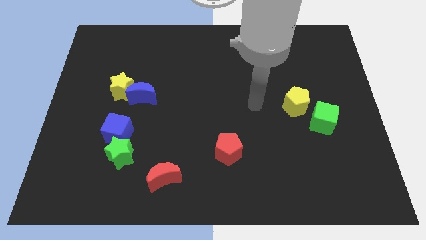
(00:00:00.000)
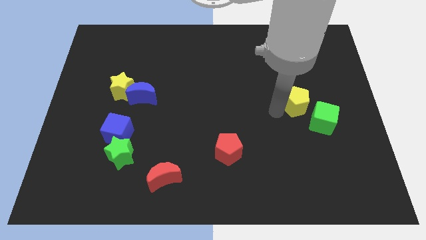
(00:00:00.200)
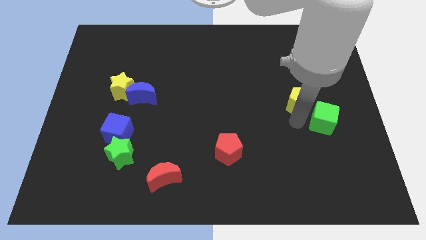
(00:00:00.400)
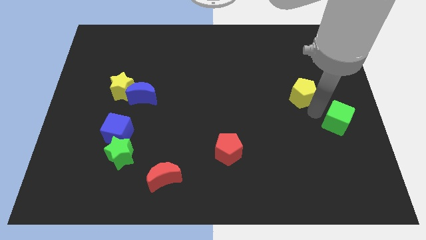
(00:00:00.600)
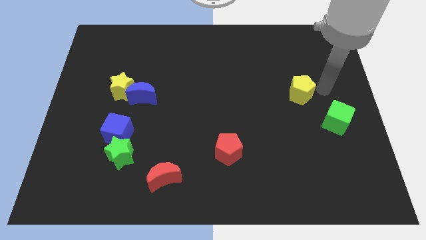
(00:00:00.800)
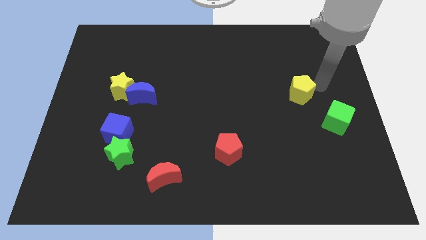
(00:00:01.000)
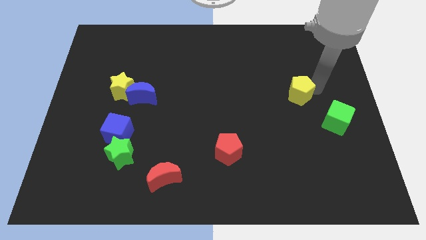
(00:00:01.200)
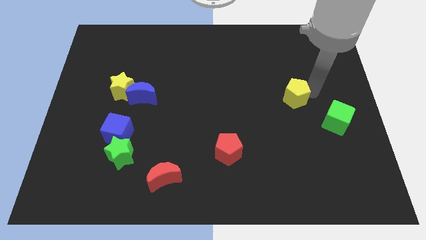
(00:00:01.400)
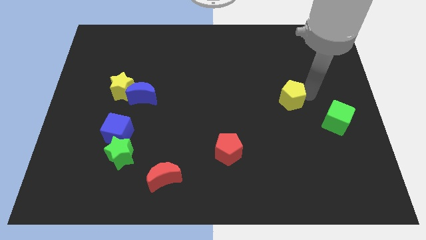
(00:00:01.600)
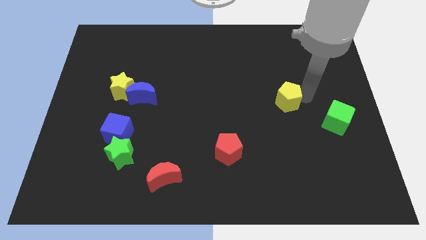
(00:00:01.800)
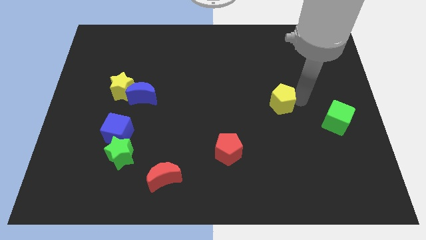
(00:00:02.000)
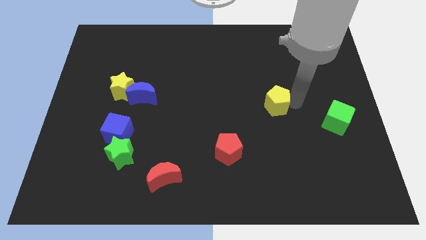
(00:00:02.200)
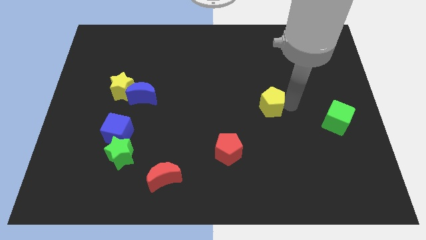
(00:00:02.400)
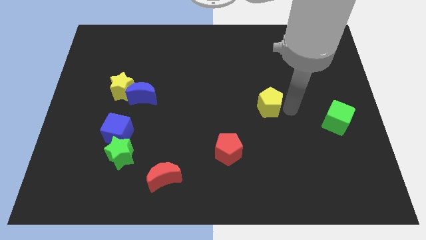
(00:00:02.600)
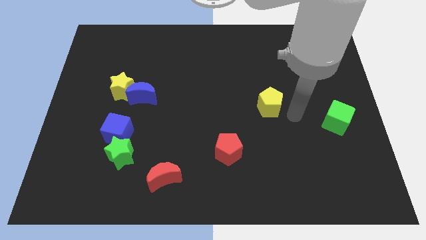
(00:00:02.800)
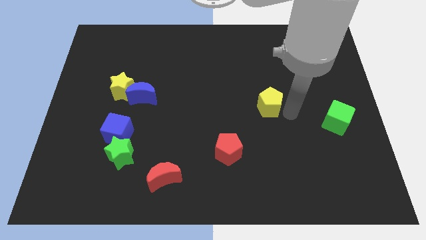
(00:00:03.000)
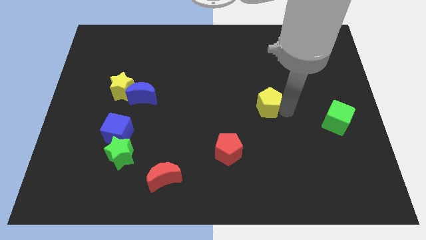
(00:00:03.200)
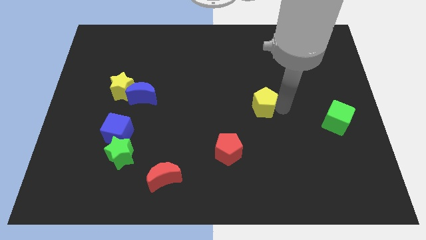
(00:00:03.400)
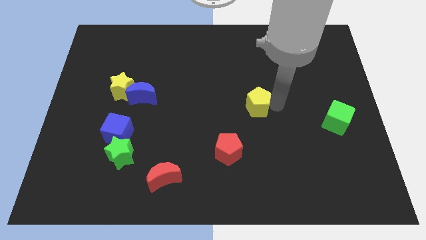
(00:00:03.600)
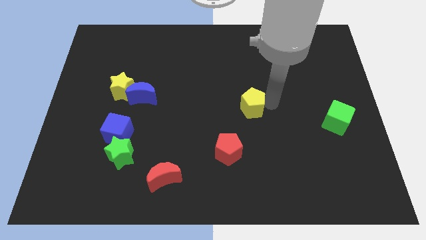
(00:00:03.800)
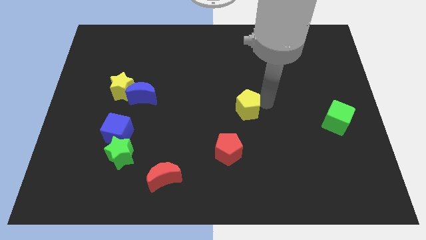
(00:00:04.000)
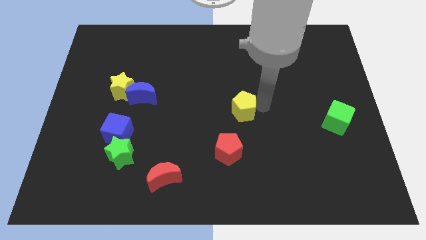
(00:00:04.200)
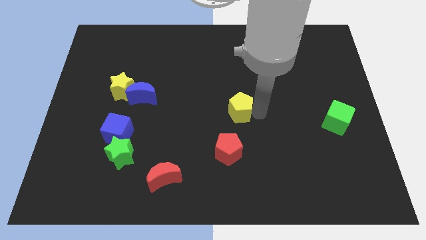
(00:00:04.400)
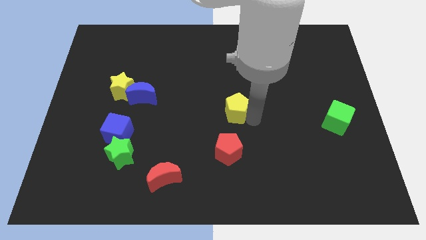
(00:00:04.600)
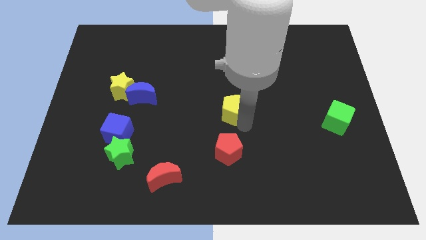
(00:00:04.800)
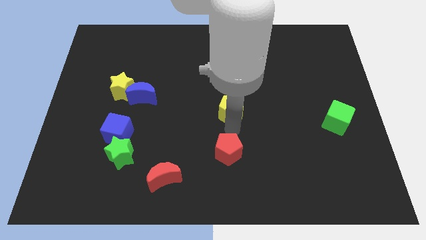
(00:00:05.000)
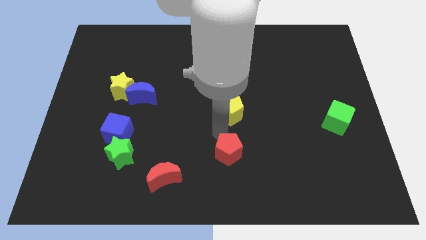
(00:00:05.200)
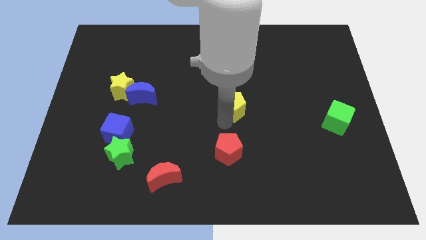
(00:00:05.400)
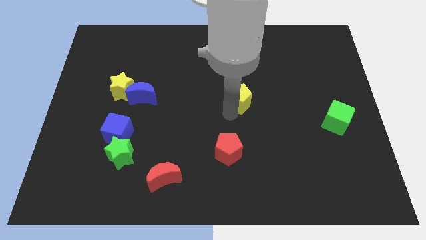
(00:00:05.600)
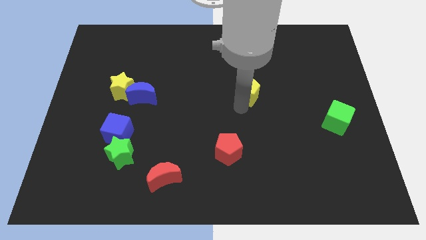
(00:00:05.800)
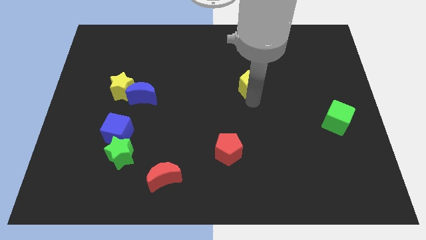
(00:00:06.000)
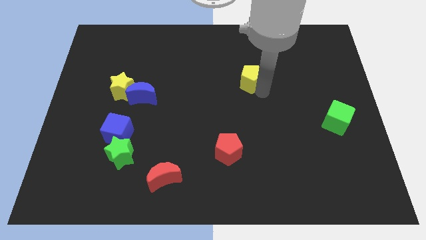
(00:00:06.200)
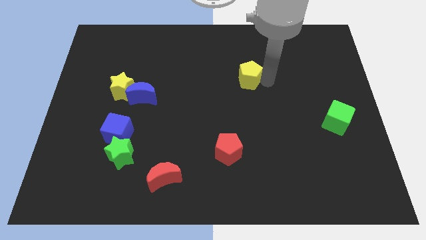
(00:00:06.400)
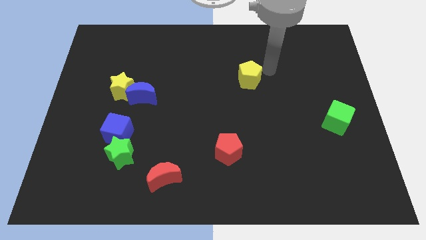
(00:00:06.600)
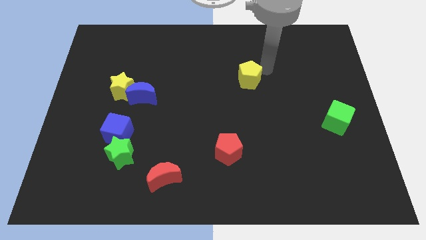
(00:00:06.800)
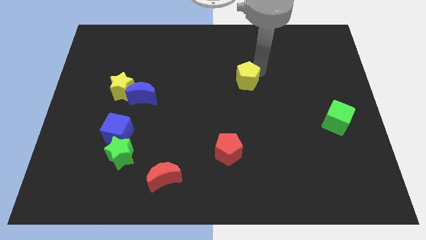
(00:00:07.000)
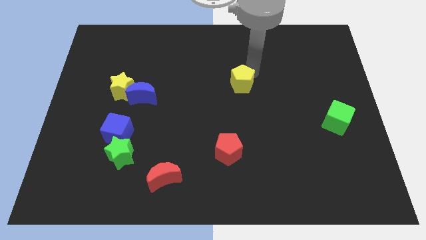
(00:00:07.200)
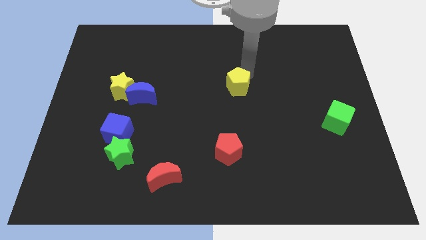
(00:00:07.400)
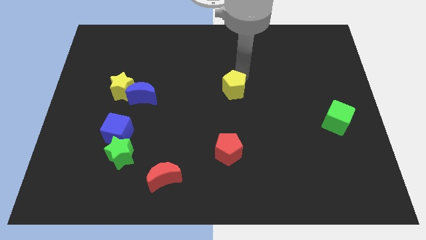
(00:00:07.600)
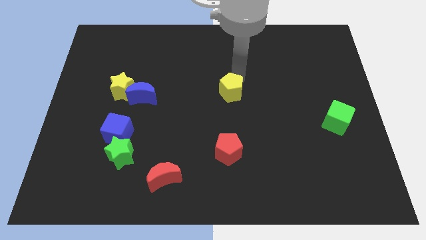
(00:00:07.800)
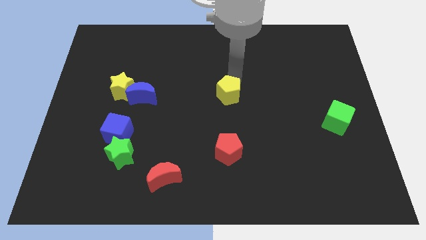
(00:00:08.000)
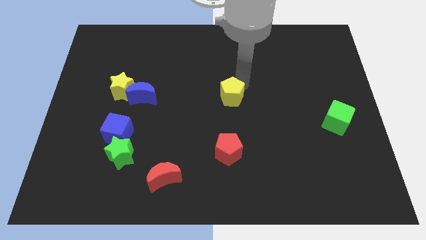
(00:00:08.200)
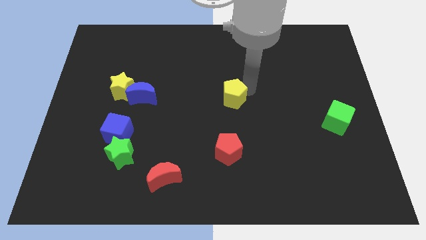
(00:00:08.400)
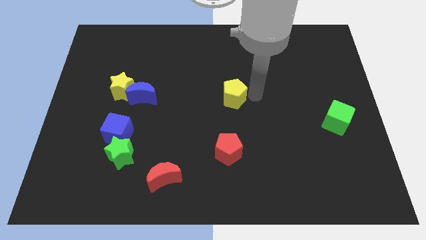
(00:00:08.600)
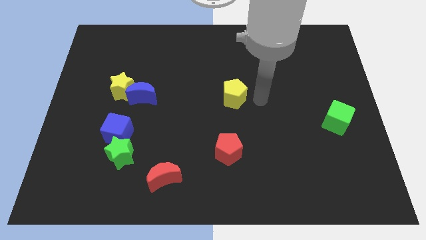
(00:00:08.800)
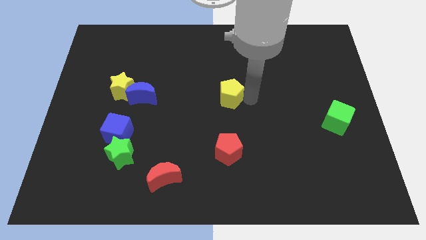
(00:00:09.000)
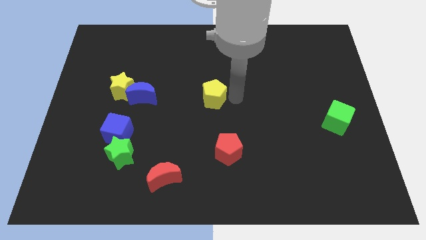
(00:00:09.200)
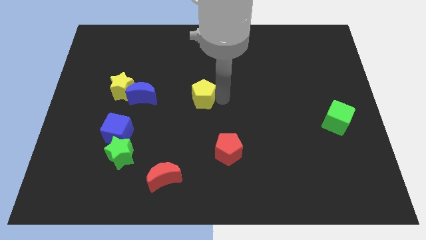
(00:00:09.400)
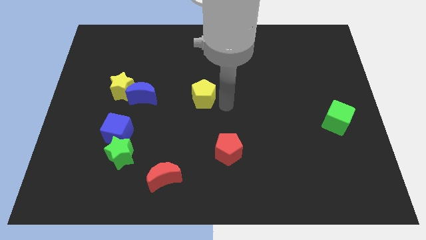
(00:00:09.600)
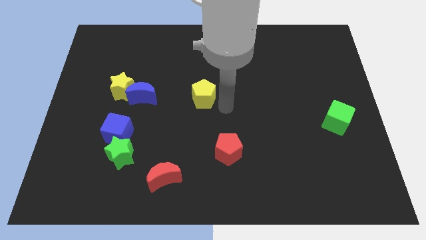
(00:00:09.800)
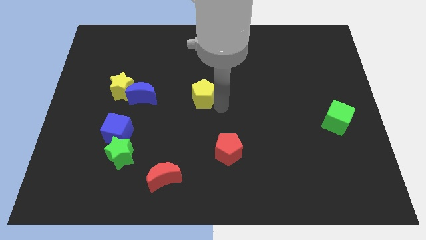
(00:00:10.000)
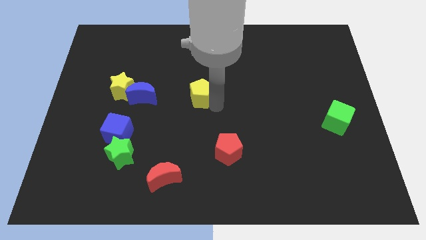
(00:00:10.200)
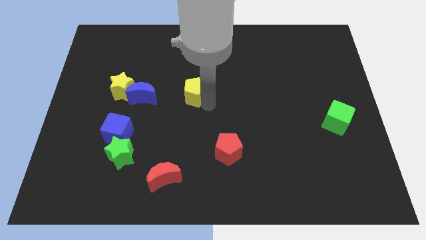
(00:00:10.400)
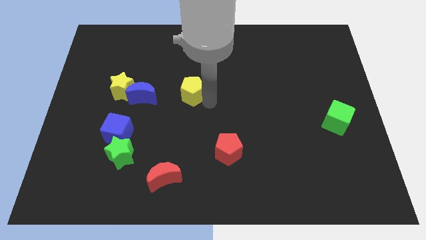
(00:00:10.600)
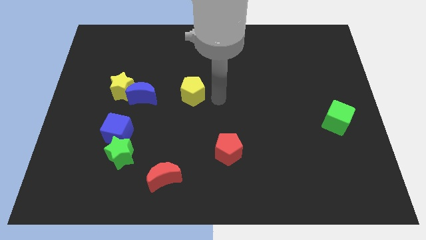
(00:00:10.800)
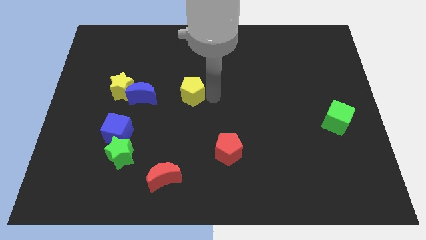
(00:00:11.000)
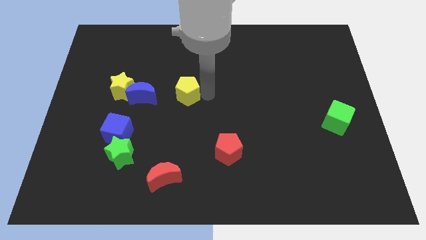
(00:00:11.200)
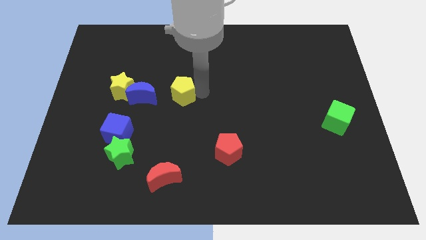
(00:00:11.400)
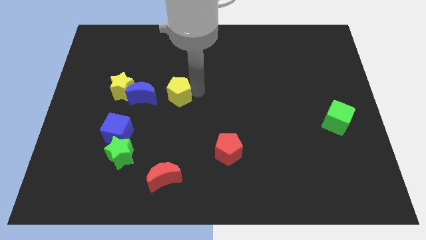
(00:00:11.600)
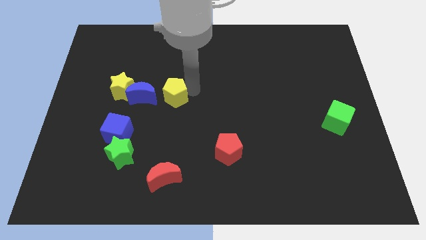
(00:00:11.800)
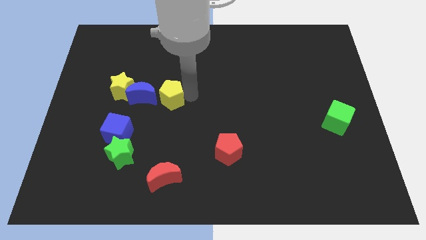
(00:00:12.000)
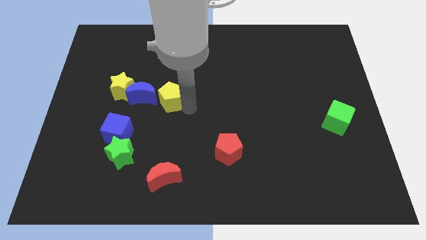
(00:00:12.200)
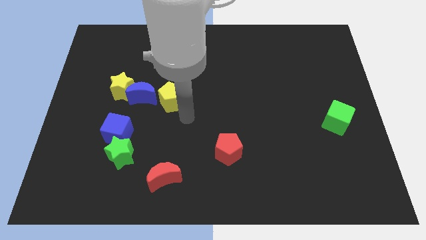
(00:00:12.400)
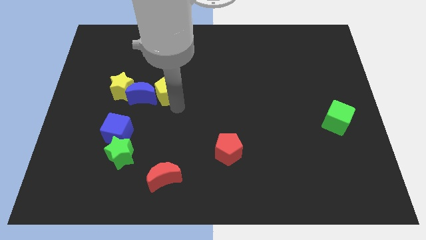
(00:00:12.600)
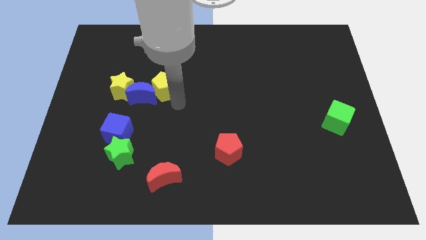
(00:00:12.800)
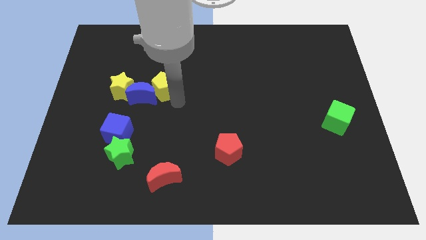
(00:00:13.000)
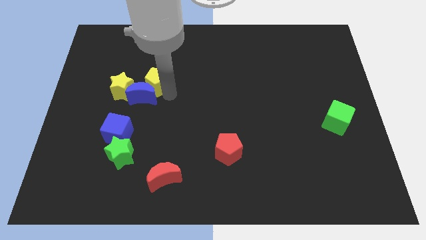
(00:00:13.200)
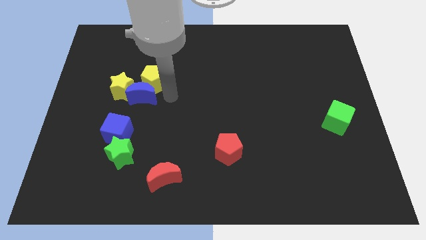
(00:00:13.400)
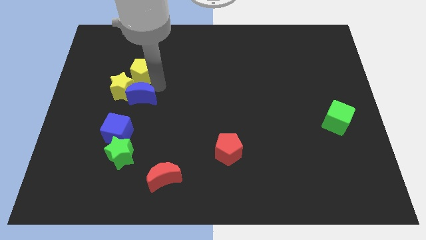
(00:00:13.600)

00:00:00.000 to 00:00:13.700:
slide the yellow pentagon to the top side of the yellow star
